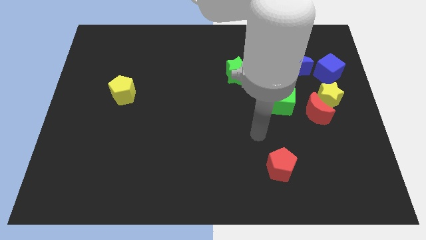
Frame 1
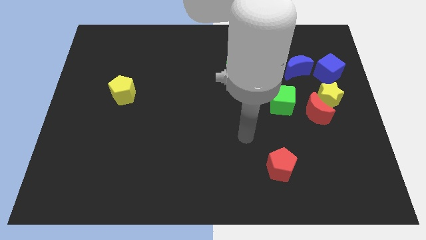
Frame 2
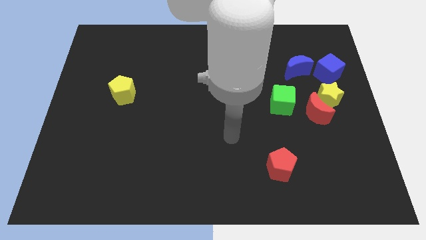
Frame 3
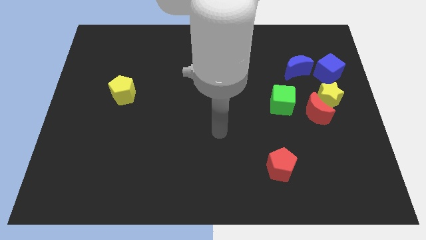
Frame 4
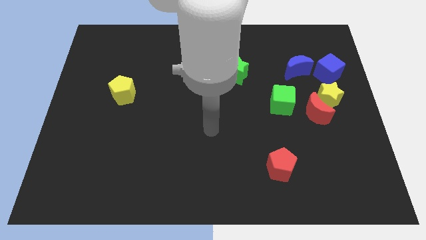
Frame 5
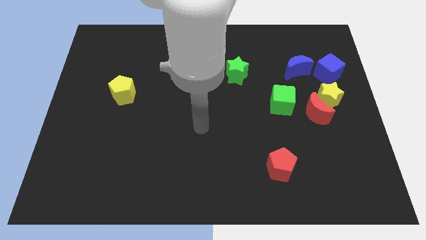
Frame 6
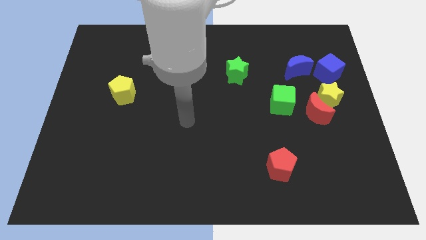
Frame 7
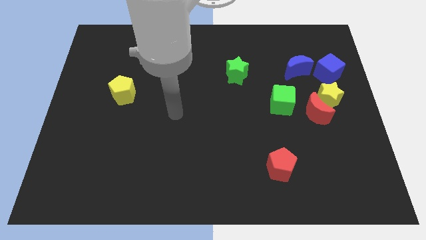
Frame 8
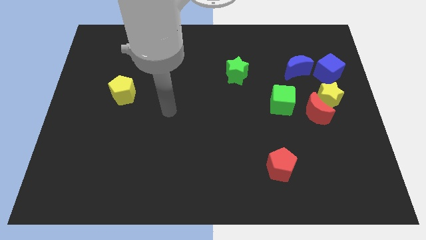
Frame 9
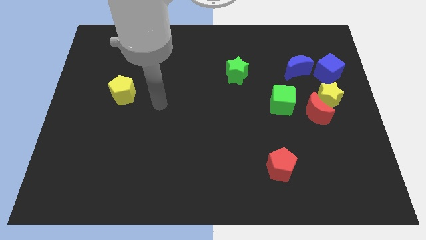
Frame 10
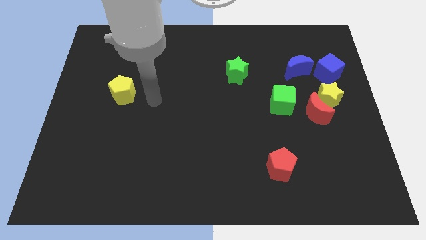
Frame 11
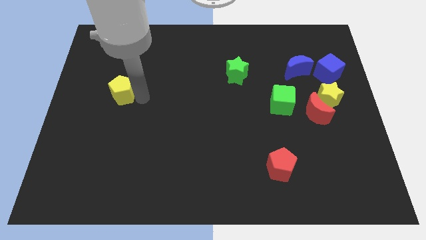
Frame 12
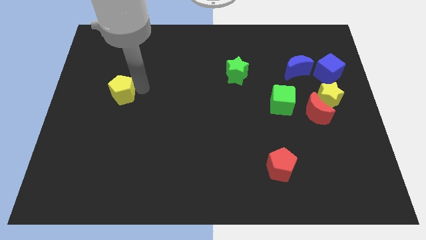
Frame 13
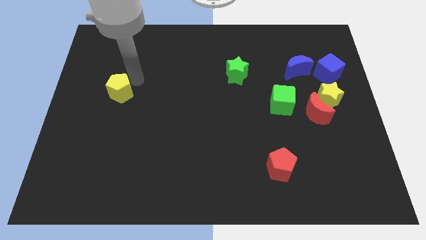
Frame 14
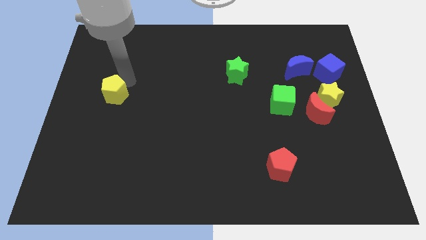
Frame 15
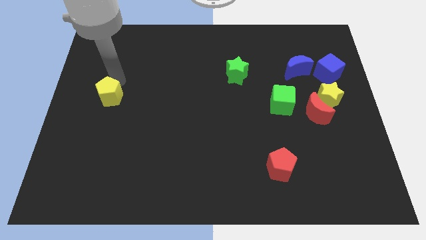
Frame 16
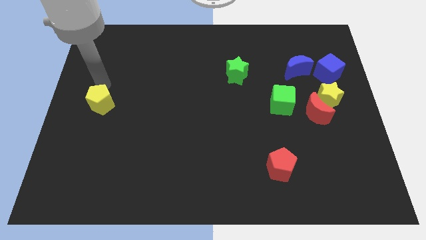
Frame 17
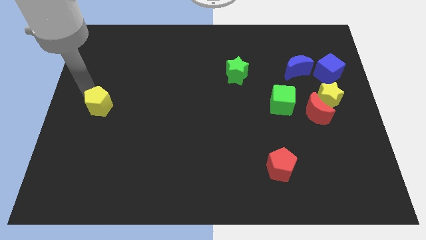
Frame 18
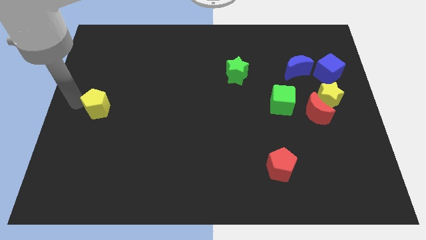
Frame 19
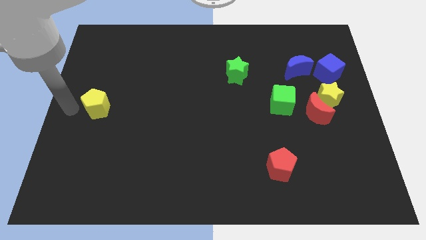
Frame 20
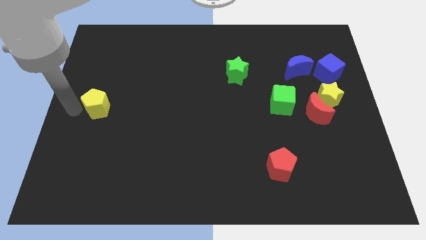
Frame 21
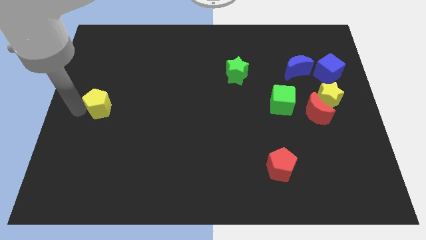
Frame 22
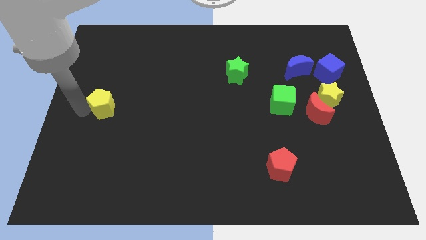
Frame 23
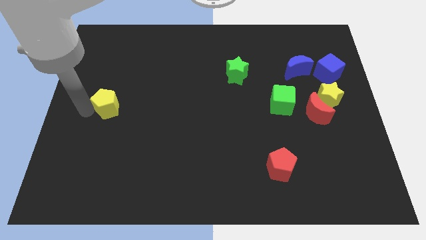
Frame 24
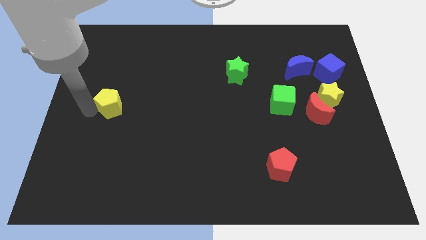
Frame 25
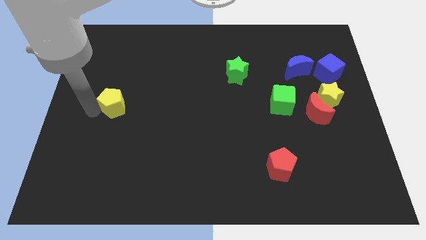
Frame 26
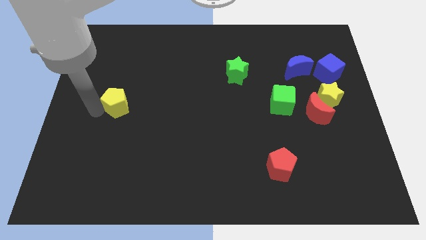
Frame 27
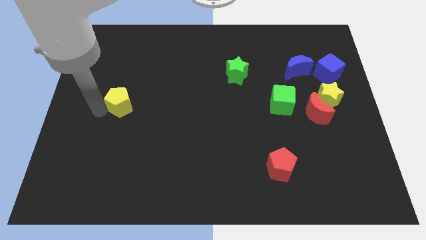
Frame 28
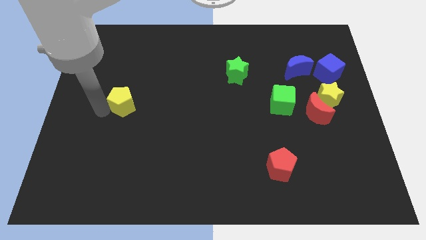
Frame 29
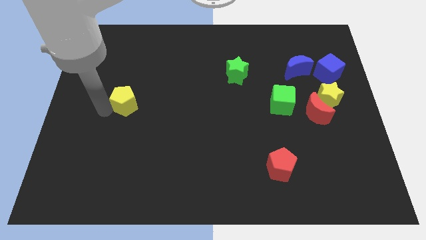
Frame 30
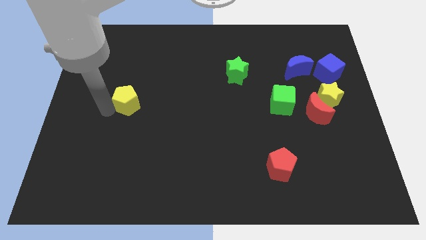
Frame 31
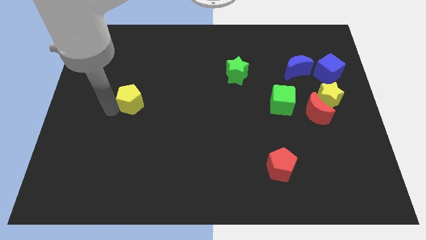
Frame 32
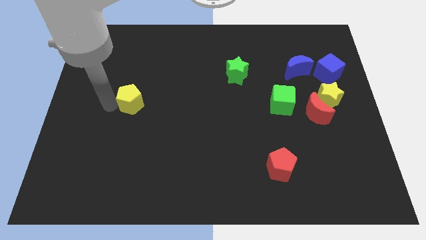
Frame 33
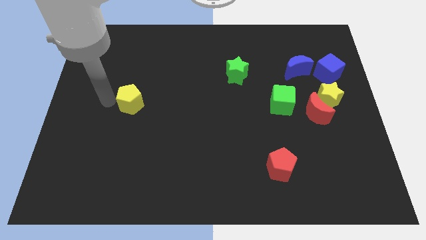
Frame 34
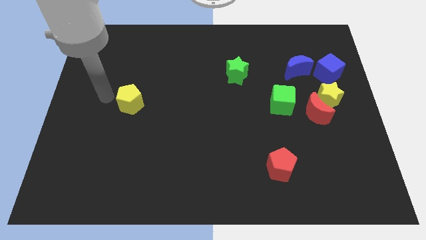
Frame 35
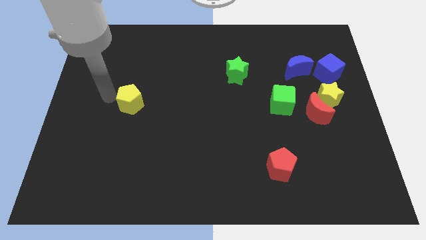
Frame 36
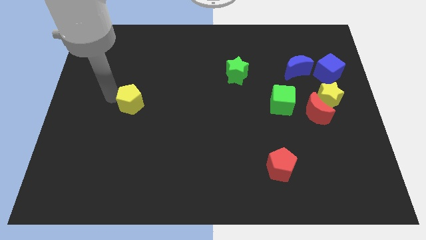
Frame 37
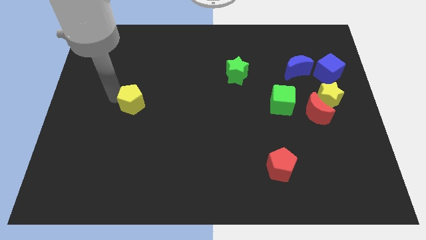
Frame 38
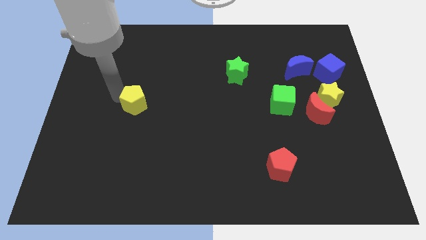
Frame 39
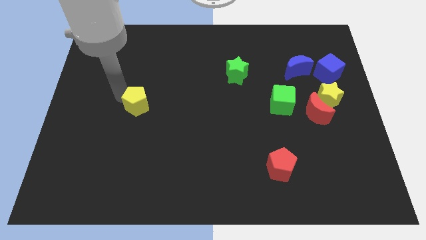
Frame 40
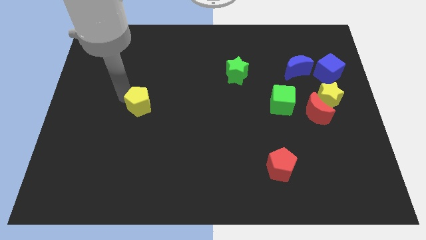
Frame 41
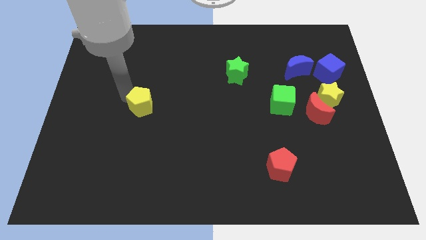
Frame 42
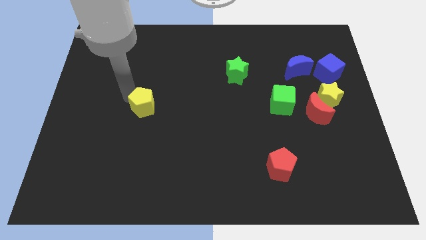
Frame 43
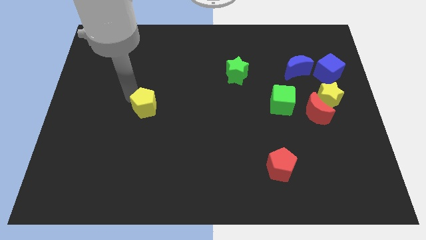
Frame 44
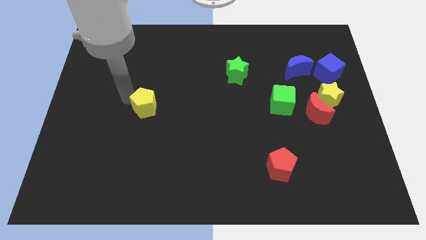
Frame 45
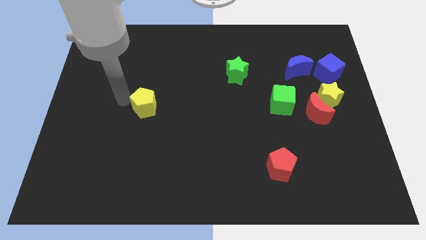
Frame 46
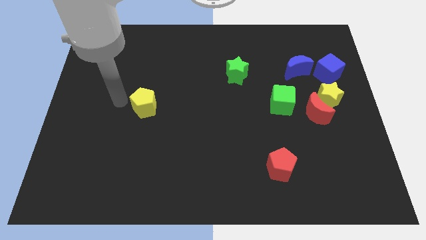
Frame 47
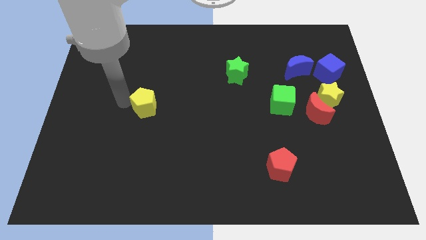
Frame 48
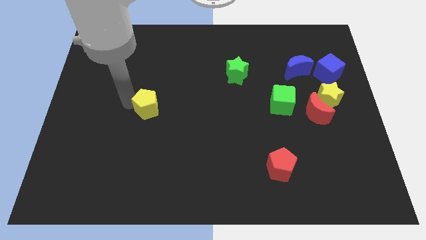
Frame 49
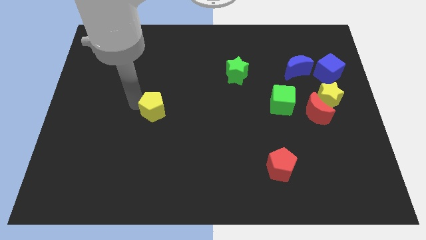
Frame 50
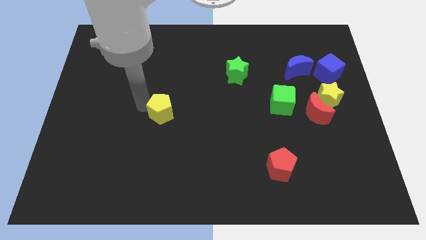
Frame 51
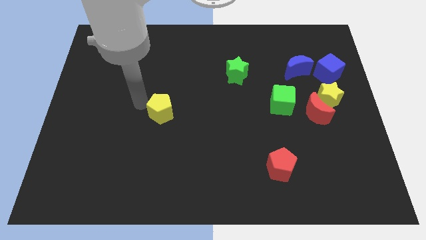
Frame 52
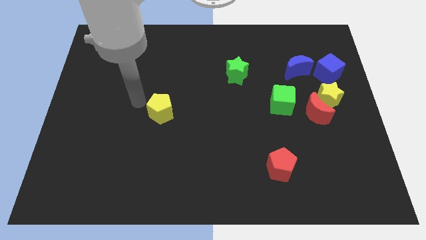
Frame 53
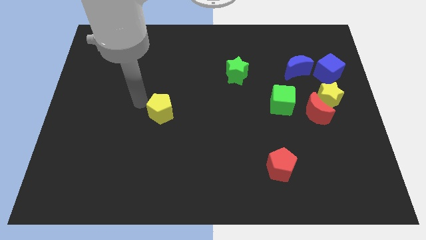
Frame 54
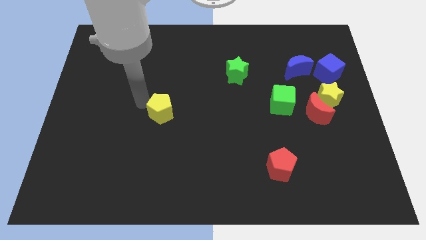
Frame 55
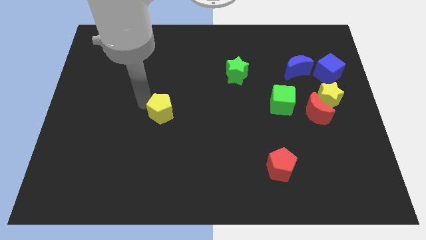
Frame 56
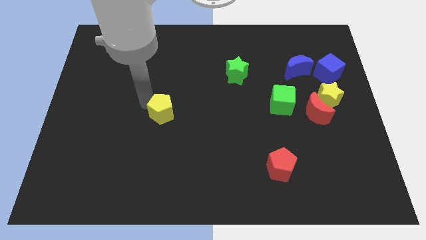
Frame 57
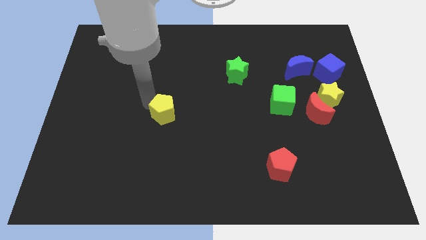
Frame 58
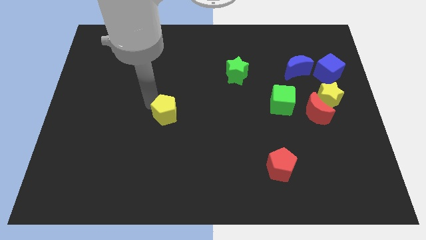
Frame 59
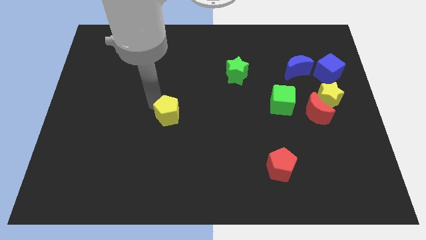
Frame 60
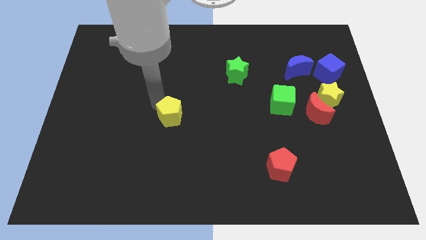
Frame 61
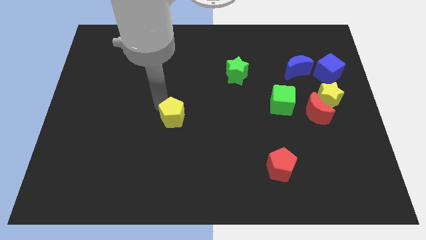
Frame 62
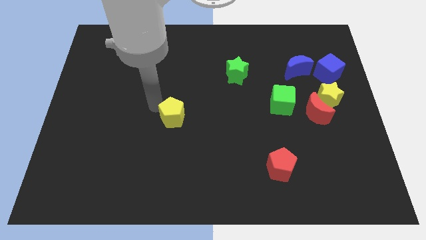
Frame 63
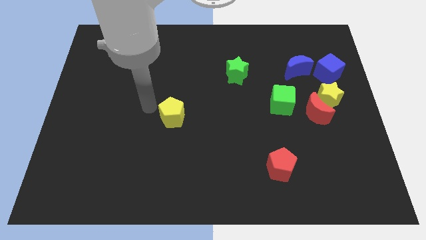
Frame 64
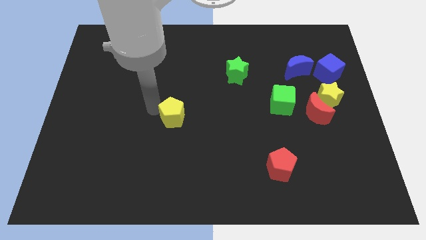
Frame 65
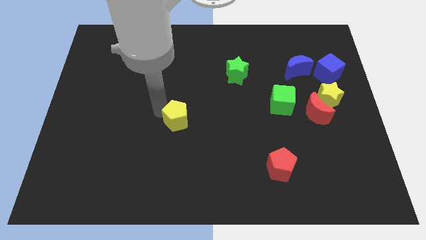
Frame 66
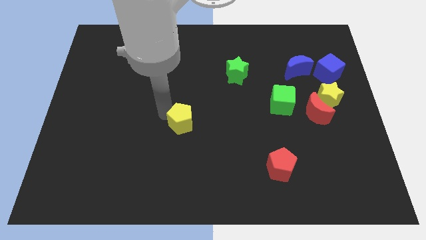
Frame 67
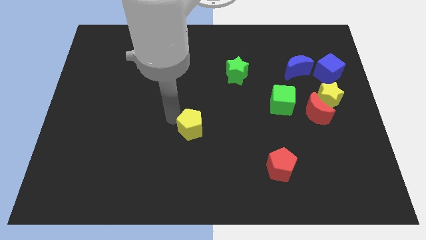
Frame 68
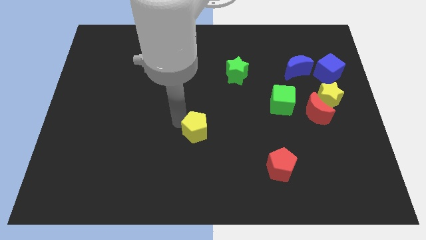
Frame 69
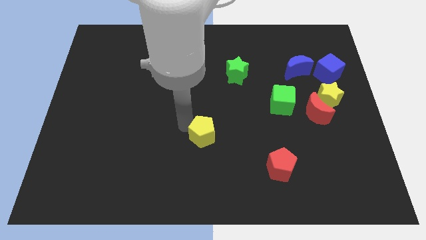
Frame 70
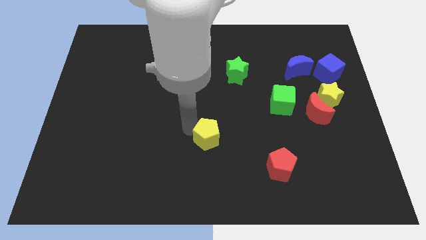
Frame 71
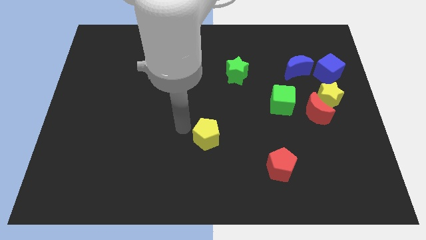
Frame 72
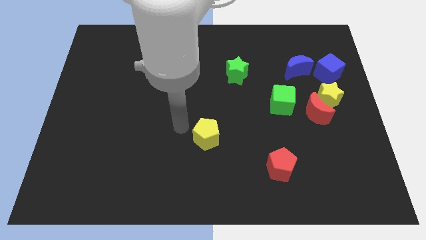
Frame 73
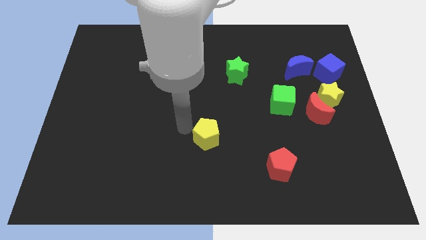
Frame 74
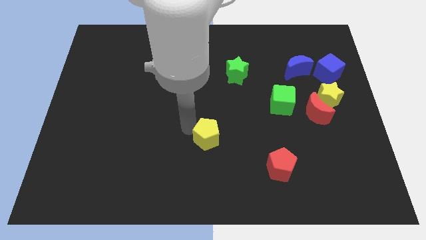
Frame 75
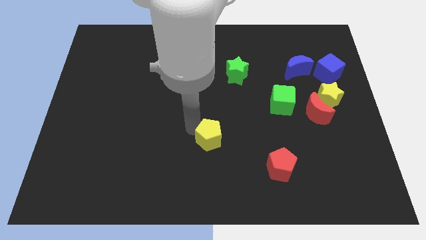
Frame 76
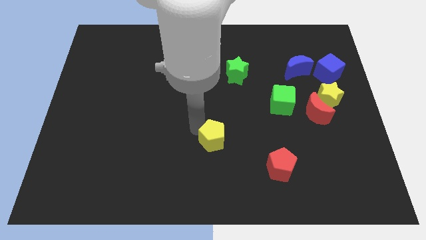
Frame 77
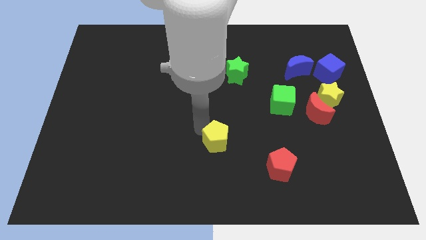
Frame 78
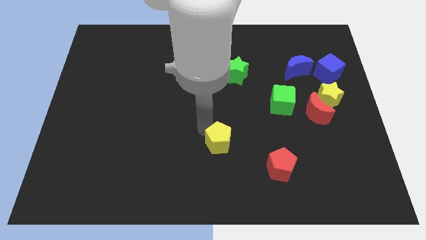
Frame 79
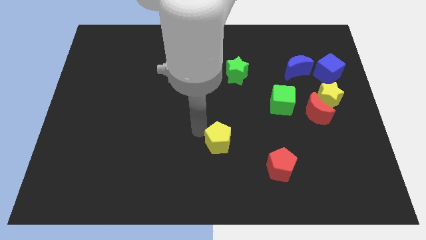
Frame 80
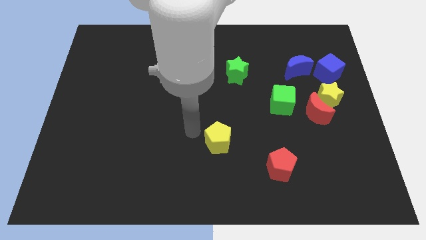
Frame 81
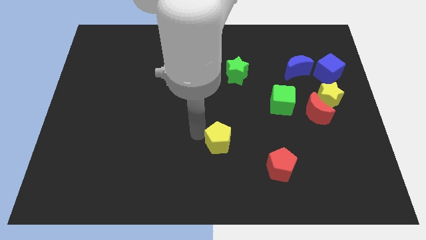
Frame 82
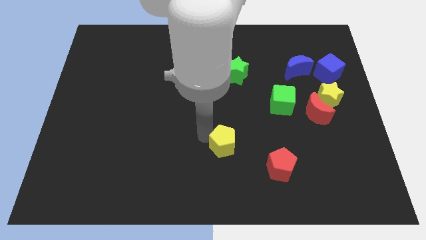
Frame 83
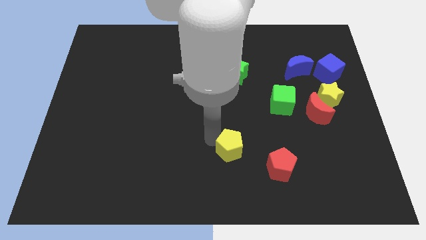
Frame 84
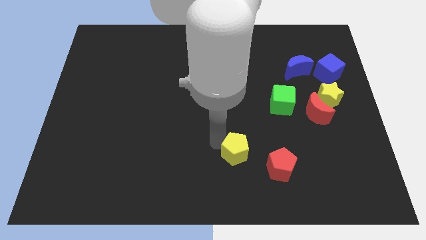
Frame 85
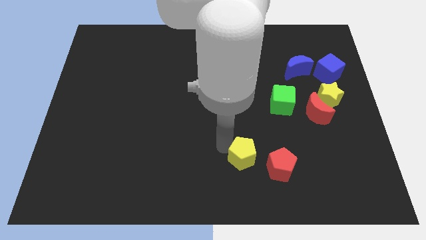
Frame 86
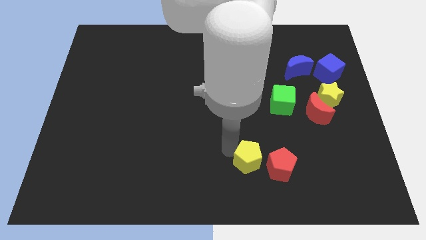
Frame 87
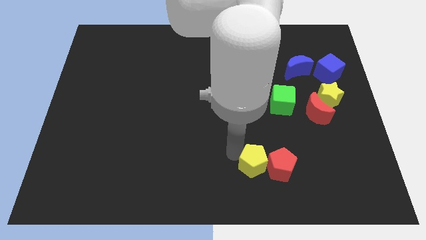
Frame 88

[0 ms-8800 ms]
slide the yellow pentagon close to the red pentagon
